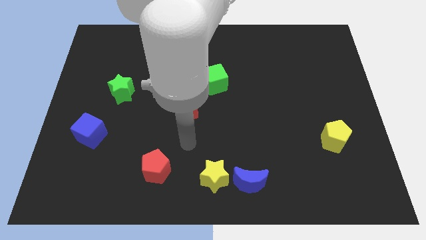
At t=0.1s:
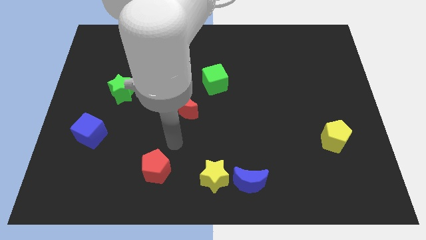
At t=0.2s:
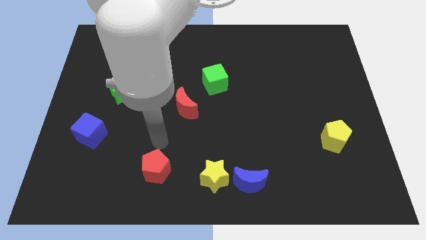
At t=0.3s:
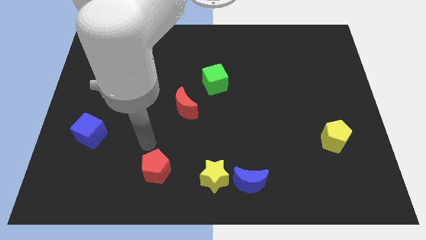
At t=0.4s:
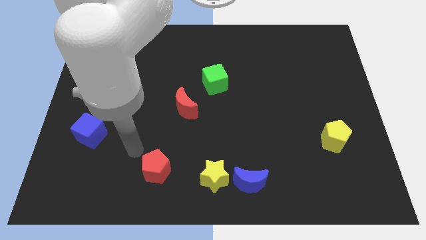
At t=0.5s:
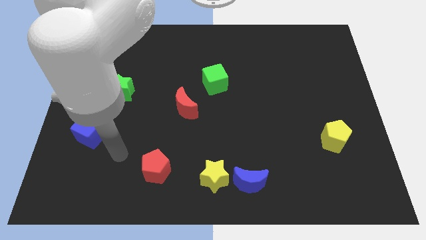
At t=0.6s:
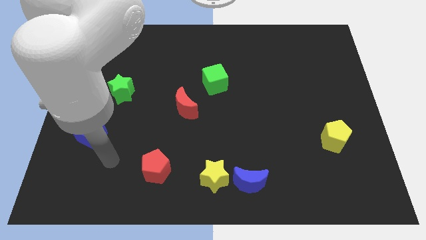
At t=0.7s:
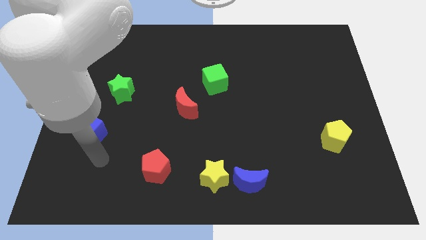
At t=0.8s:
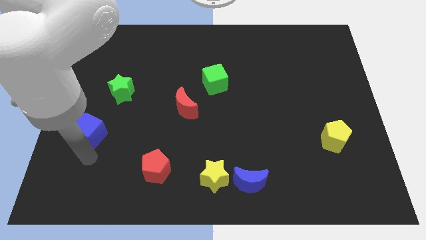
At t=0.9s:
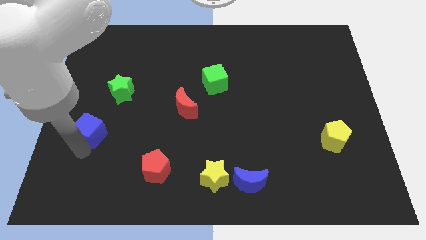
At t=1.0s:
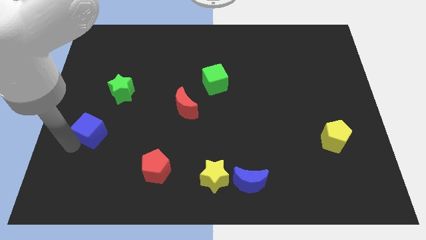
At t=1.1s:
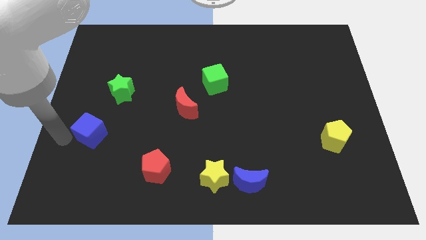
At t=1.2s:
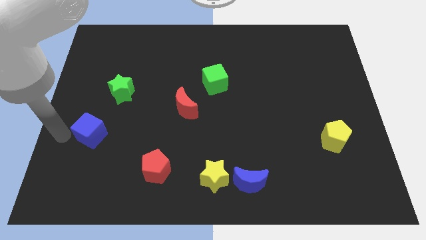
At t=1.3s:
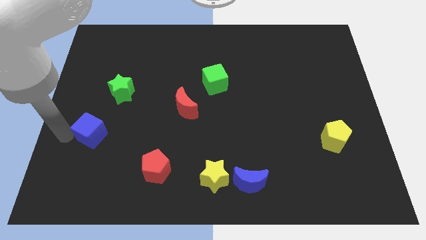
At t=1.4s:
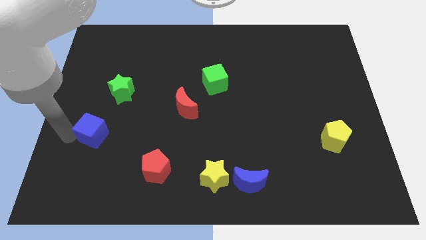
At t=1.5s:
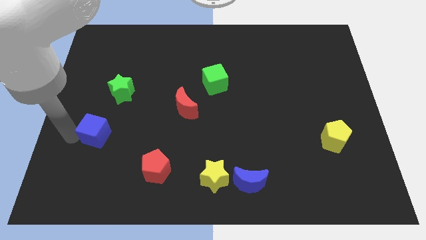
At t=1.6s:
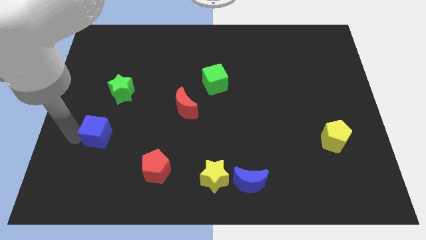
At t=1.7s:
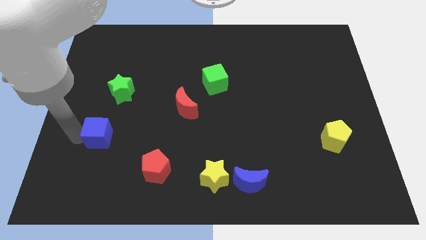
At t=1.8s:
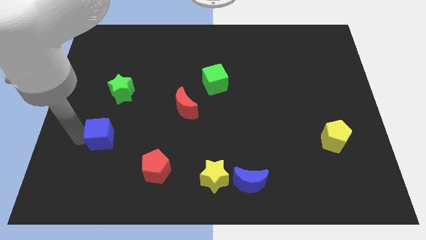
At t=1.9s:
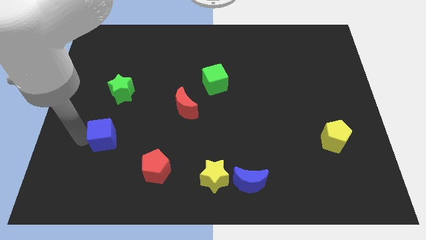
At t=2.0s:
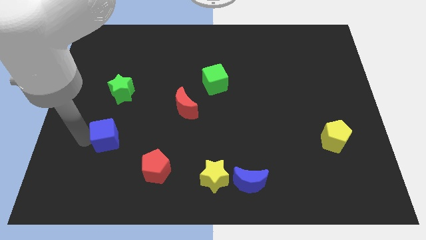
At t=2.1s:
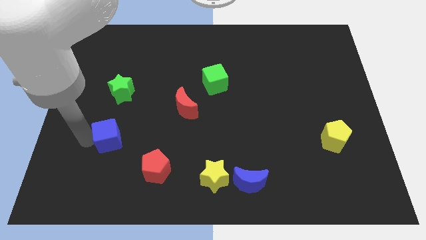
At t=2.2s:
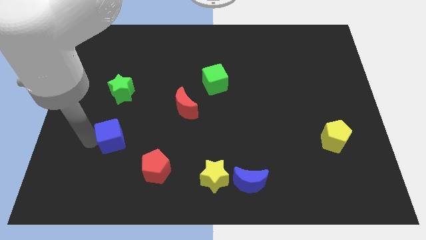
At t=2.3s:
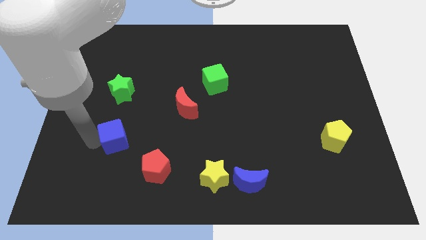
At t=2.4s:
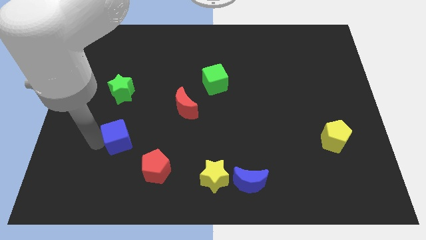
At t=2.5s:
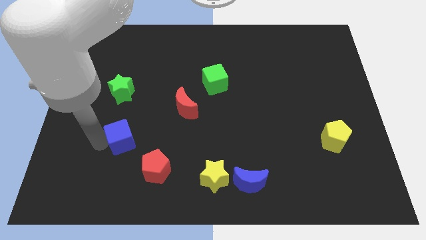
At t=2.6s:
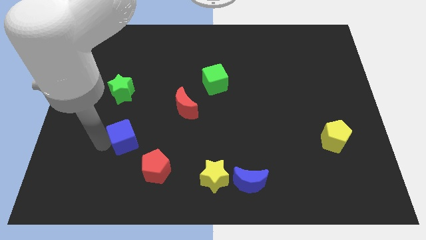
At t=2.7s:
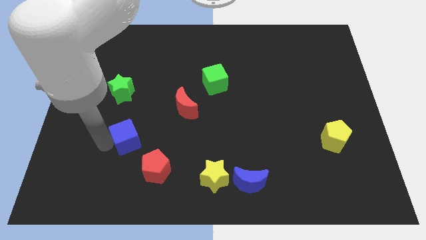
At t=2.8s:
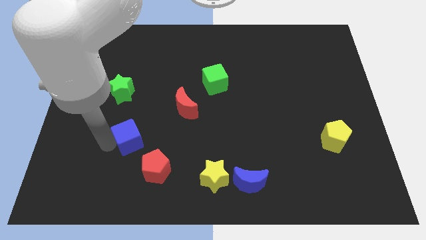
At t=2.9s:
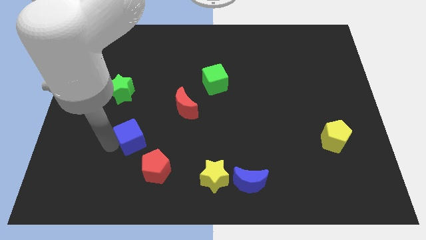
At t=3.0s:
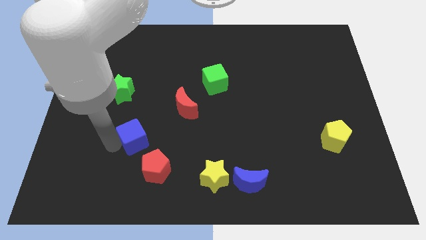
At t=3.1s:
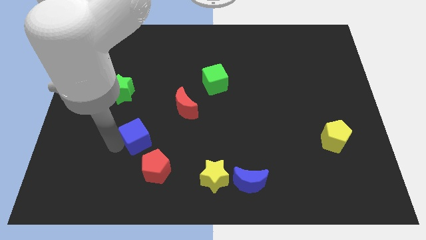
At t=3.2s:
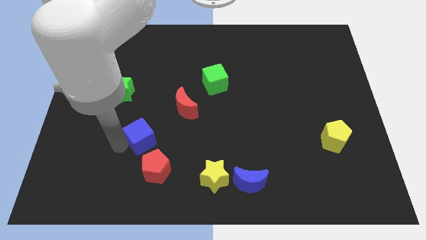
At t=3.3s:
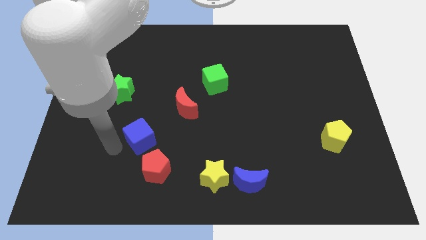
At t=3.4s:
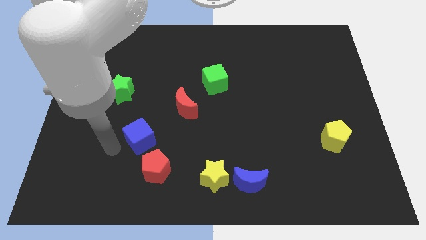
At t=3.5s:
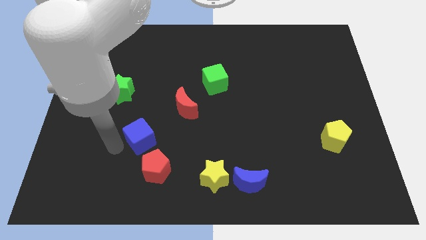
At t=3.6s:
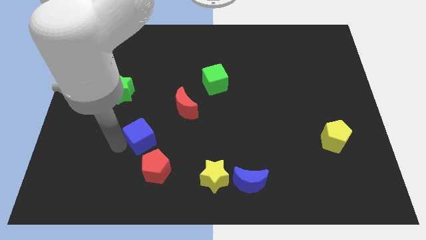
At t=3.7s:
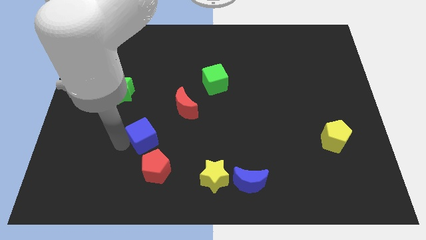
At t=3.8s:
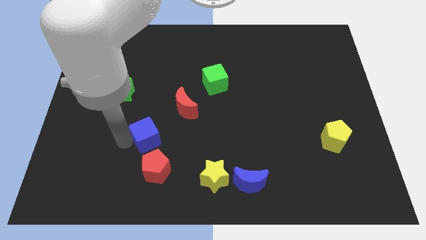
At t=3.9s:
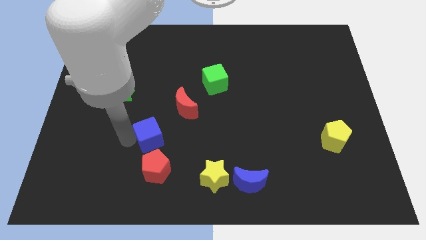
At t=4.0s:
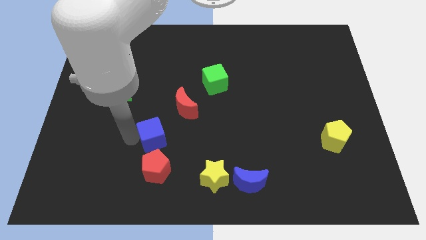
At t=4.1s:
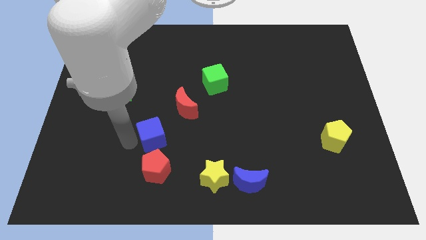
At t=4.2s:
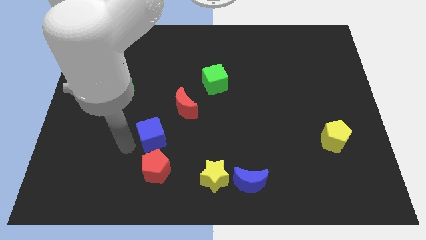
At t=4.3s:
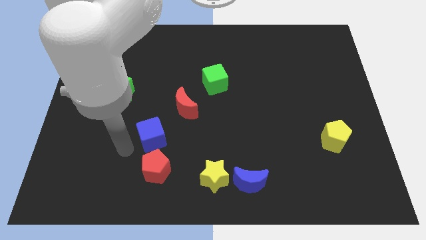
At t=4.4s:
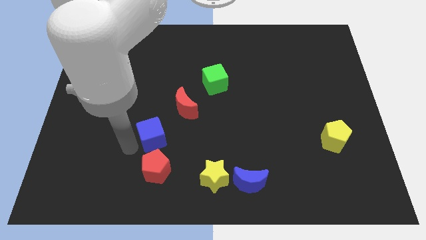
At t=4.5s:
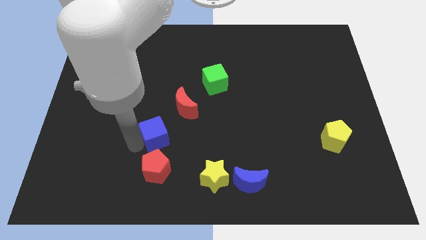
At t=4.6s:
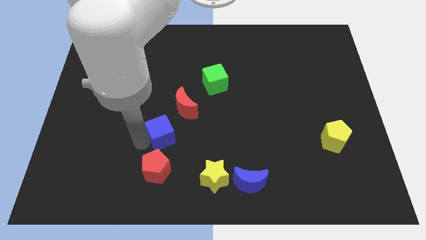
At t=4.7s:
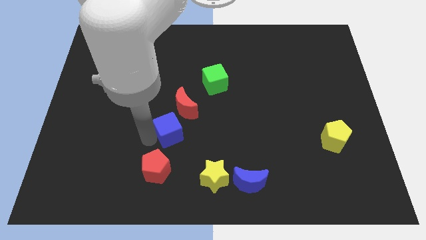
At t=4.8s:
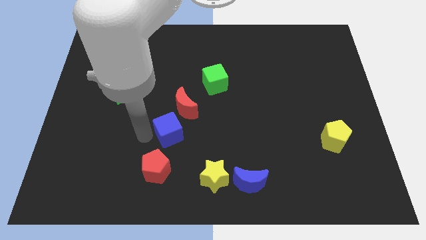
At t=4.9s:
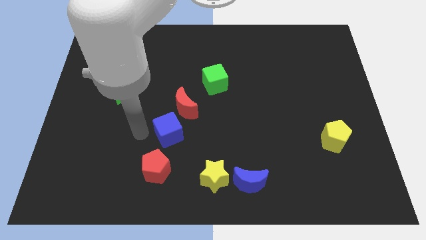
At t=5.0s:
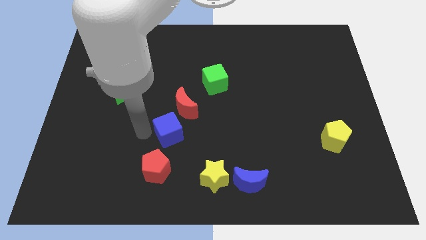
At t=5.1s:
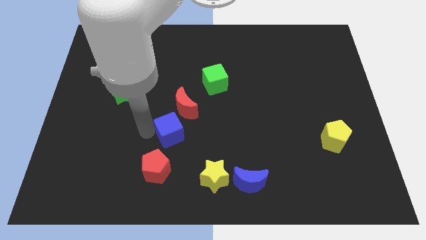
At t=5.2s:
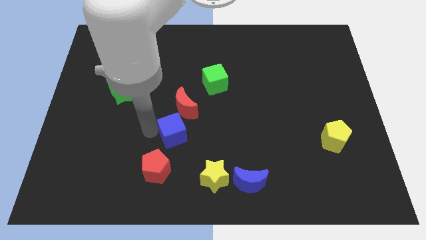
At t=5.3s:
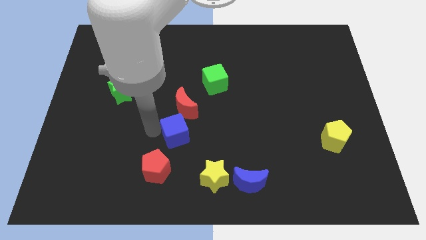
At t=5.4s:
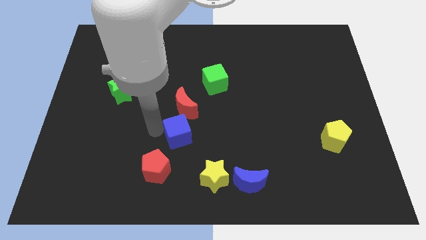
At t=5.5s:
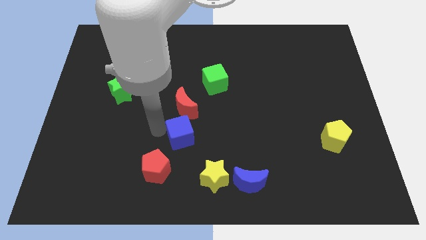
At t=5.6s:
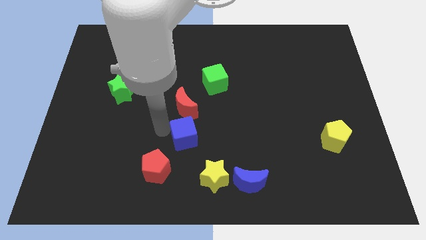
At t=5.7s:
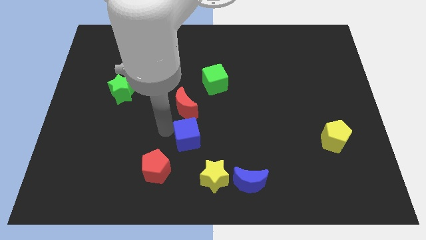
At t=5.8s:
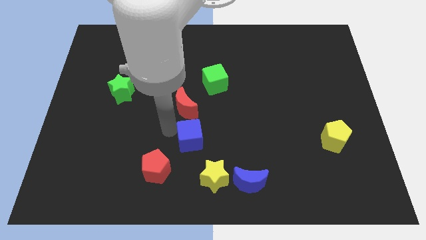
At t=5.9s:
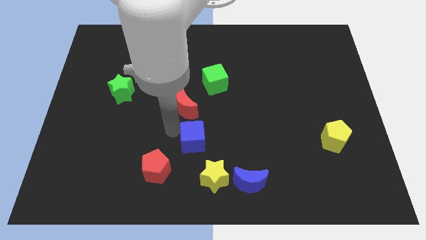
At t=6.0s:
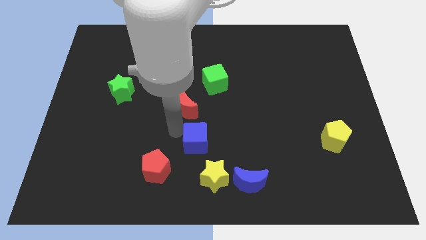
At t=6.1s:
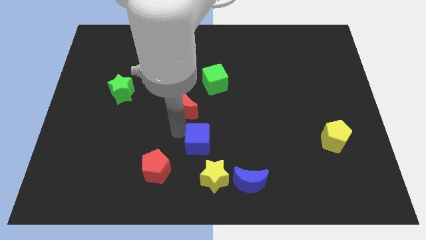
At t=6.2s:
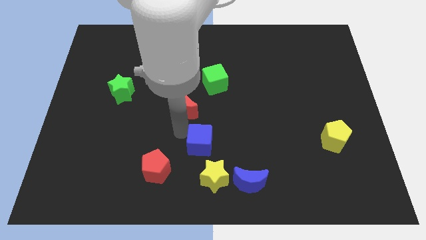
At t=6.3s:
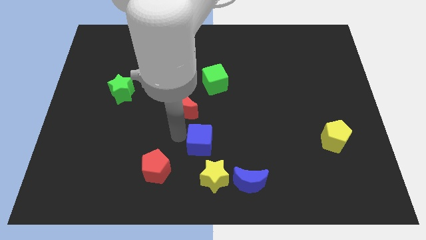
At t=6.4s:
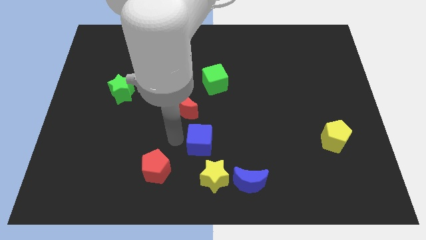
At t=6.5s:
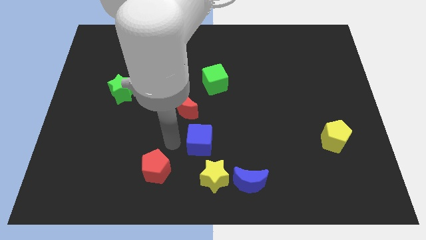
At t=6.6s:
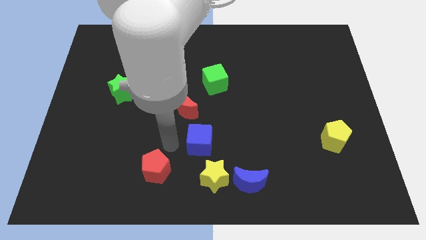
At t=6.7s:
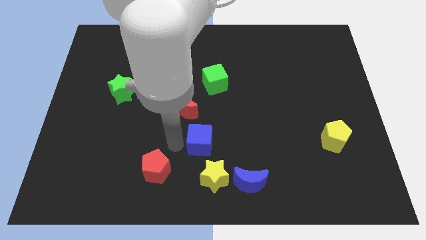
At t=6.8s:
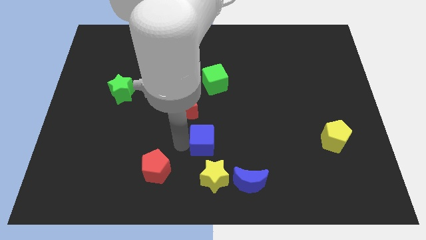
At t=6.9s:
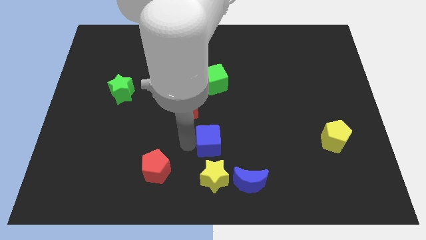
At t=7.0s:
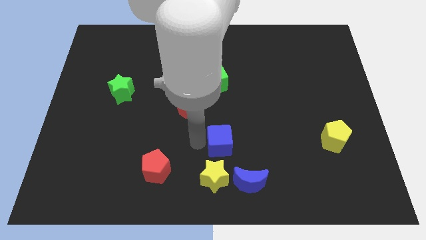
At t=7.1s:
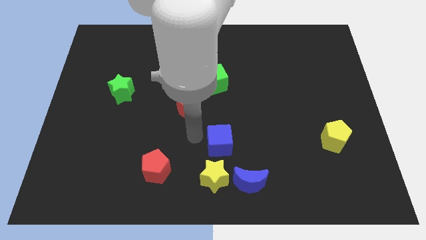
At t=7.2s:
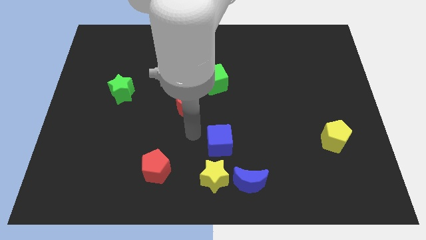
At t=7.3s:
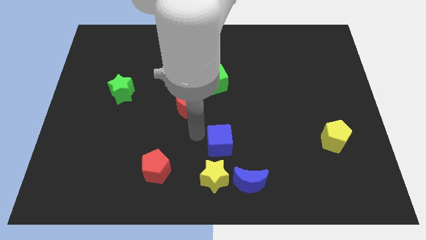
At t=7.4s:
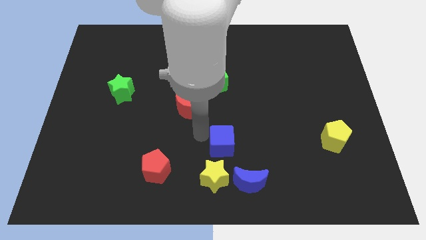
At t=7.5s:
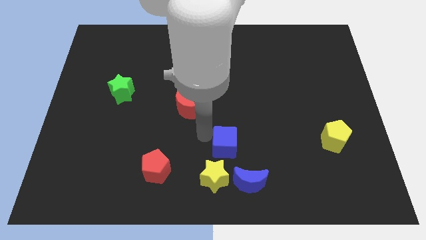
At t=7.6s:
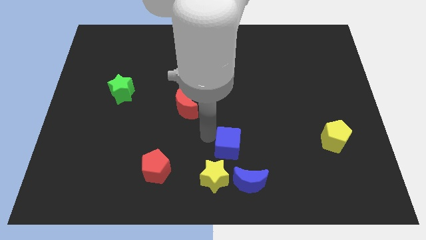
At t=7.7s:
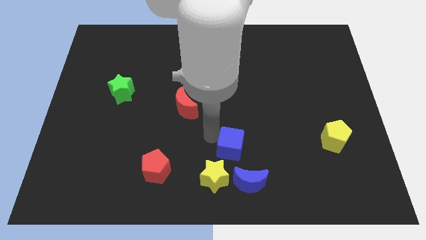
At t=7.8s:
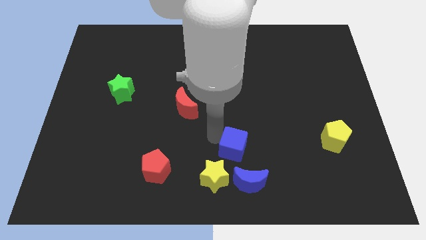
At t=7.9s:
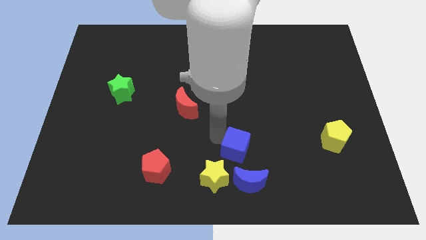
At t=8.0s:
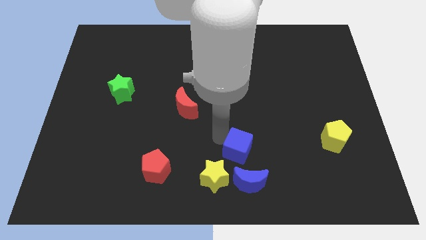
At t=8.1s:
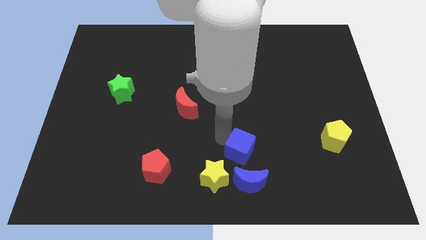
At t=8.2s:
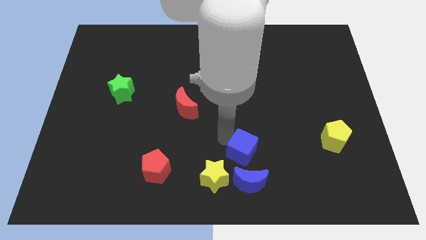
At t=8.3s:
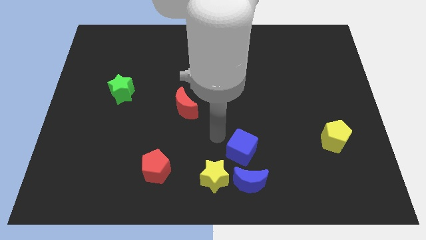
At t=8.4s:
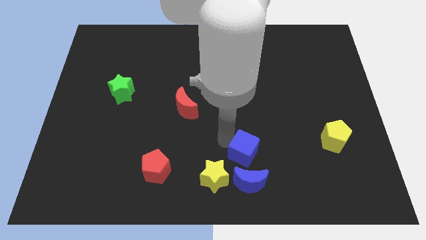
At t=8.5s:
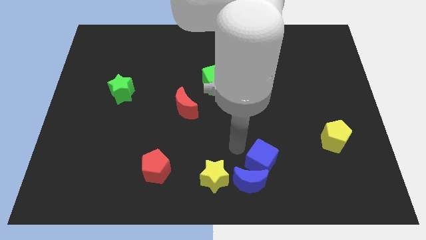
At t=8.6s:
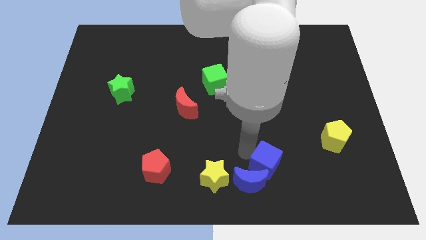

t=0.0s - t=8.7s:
move the blue cube just right of the blue moon
